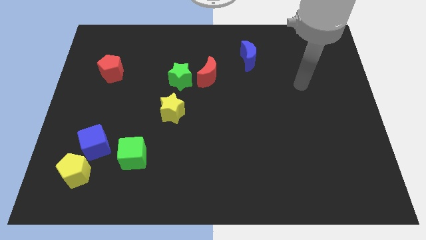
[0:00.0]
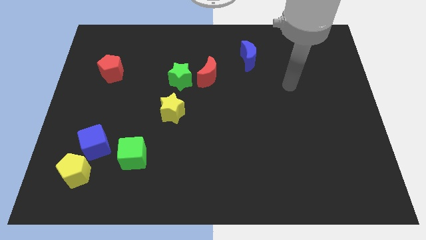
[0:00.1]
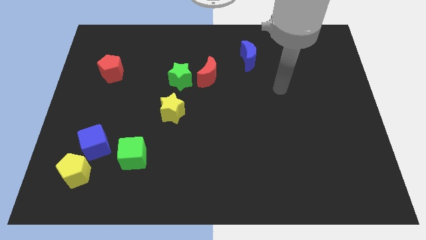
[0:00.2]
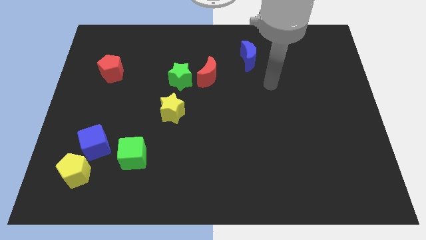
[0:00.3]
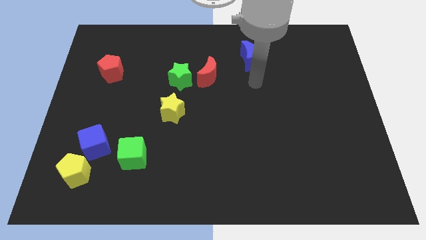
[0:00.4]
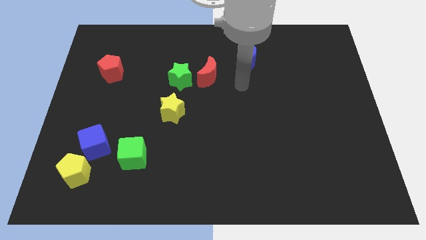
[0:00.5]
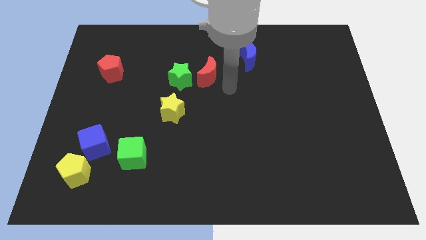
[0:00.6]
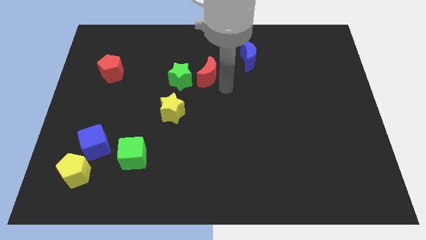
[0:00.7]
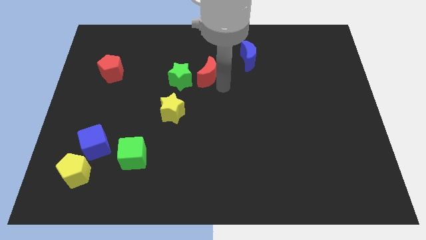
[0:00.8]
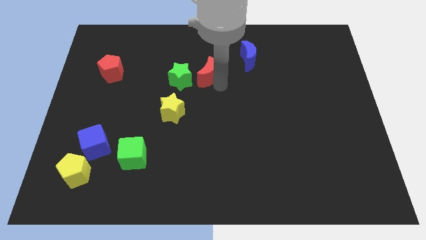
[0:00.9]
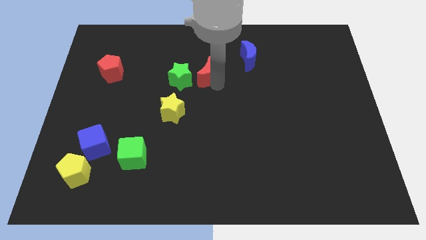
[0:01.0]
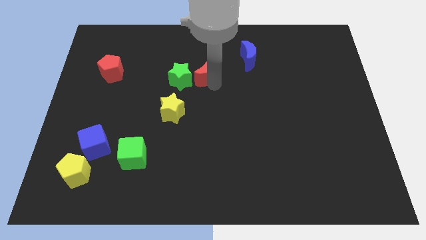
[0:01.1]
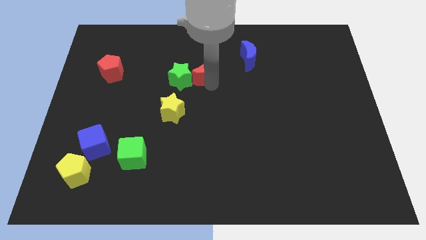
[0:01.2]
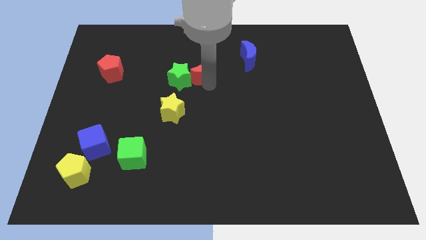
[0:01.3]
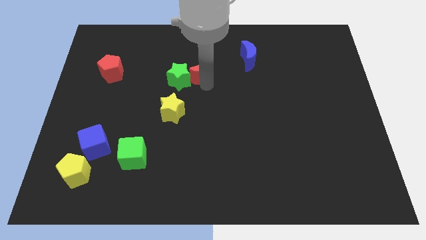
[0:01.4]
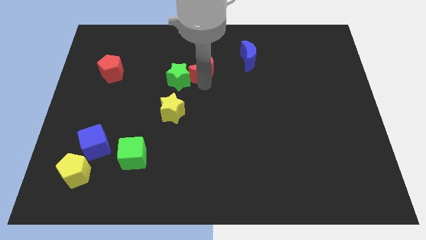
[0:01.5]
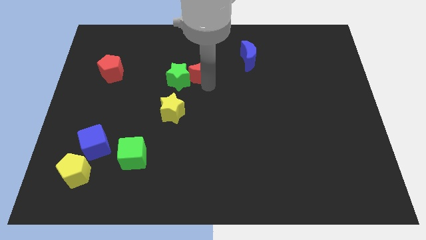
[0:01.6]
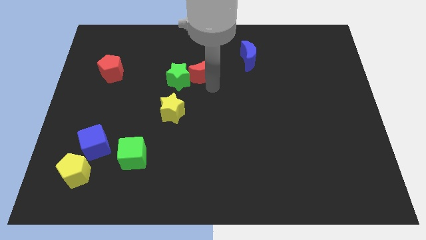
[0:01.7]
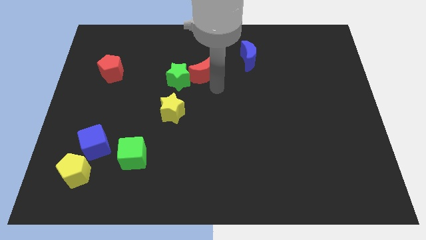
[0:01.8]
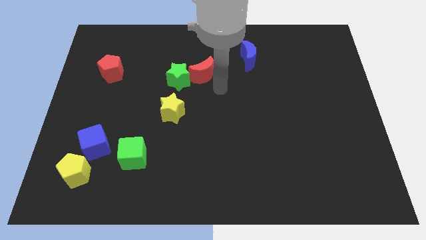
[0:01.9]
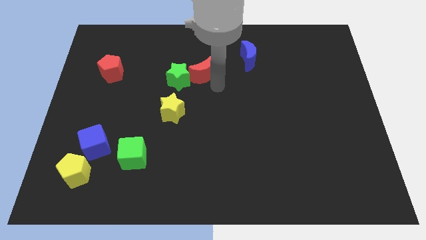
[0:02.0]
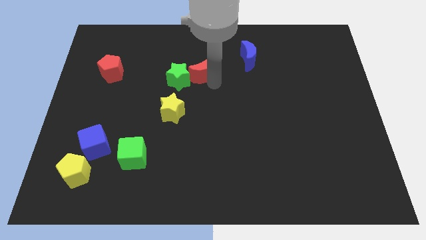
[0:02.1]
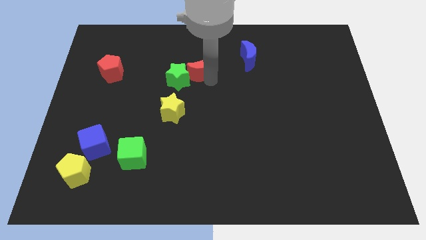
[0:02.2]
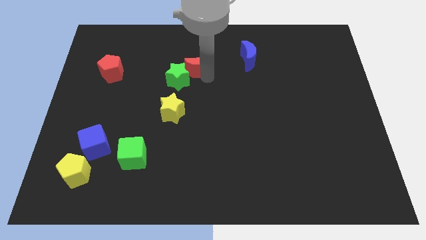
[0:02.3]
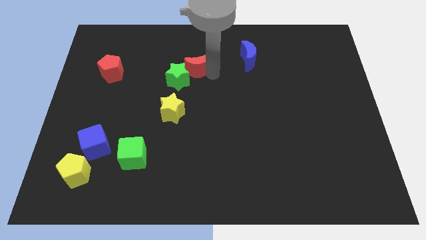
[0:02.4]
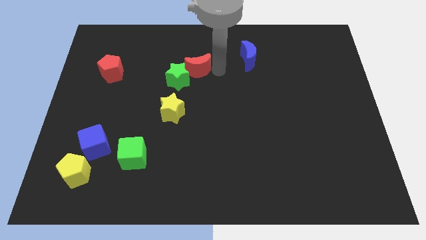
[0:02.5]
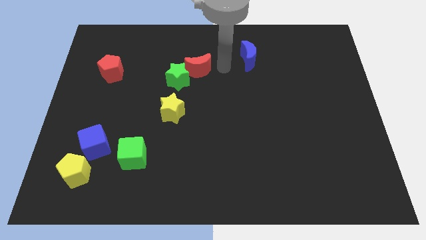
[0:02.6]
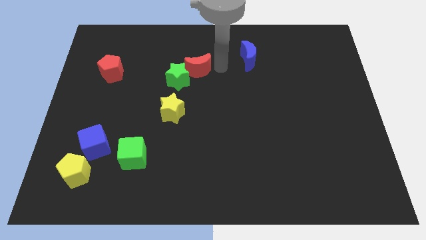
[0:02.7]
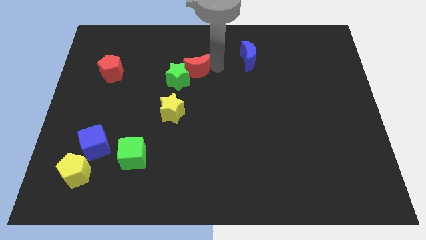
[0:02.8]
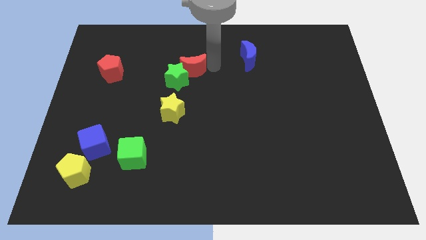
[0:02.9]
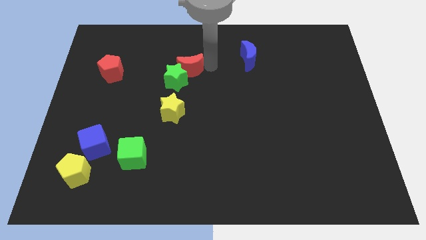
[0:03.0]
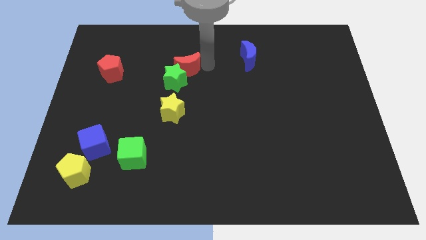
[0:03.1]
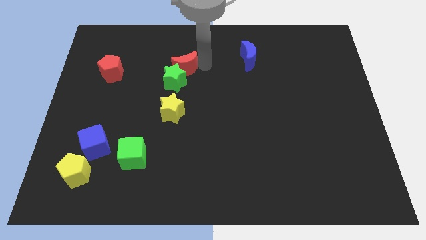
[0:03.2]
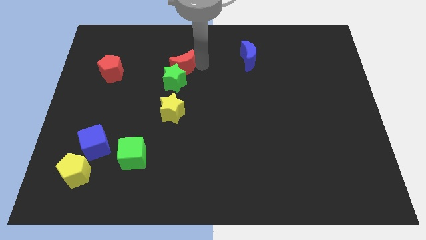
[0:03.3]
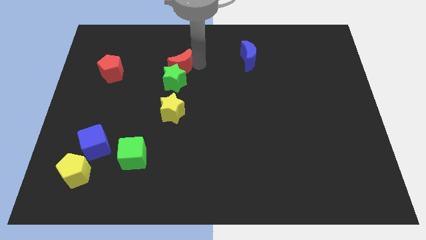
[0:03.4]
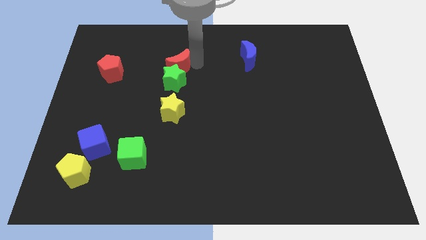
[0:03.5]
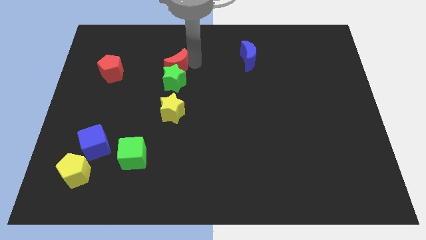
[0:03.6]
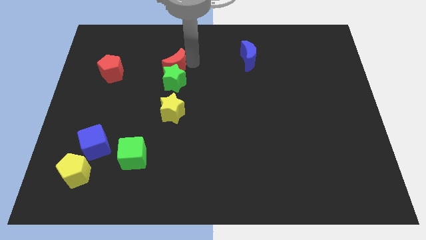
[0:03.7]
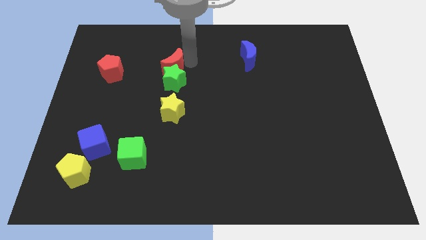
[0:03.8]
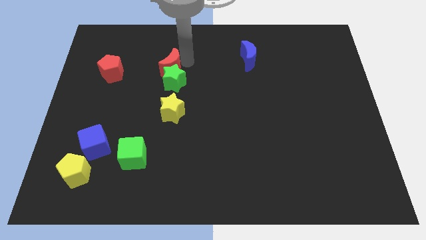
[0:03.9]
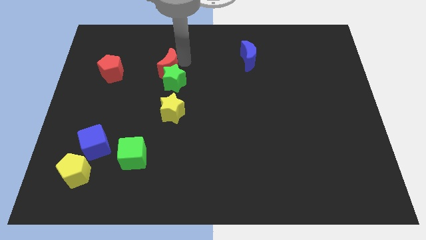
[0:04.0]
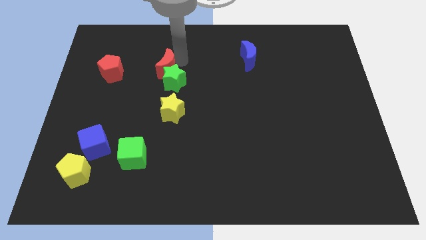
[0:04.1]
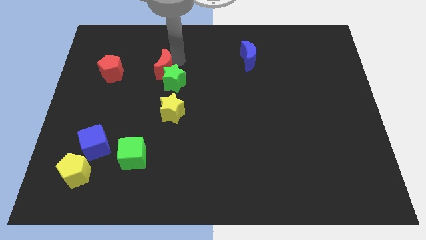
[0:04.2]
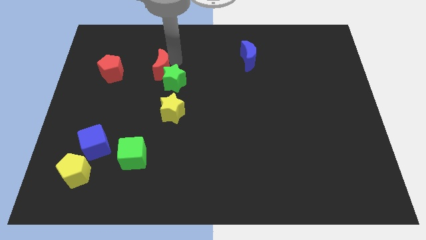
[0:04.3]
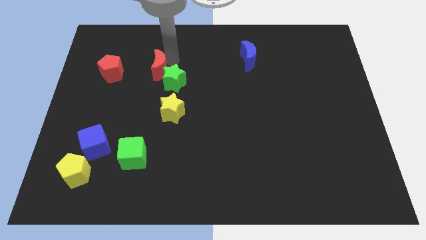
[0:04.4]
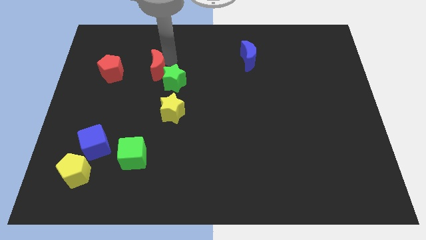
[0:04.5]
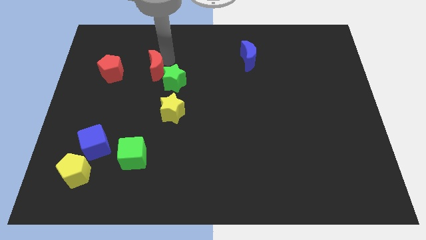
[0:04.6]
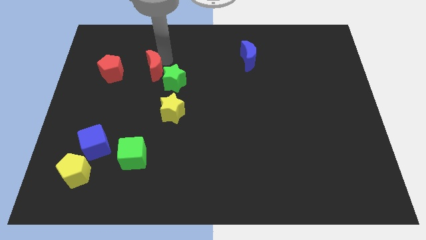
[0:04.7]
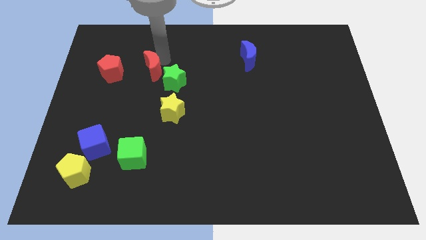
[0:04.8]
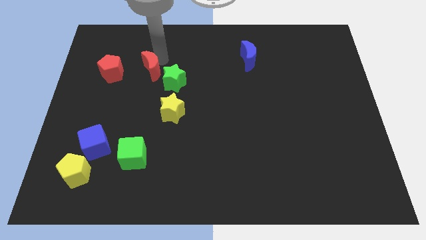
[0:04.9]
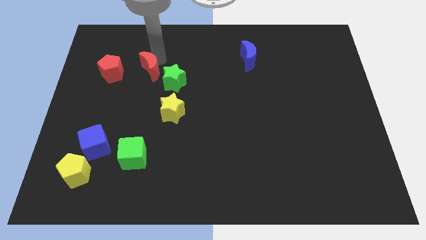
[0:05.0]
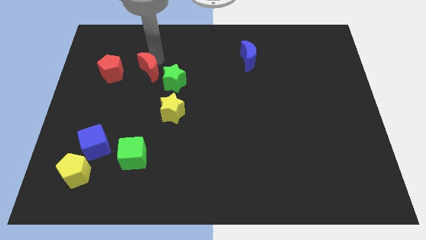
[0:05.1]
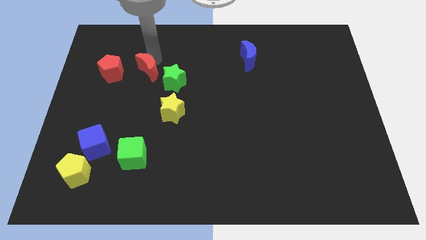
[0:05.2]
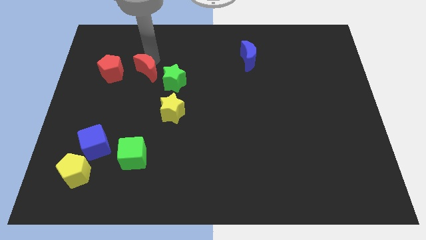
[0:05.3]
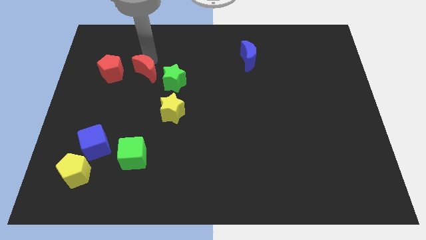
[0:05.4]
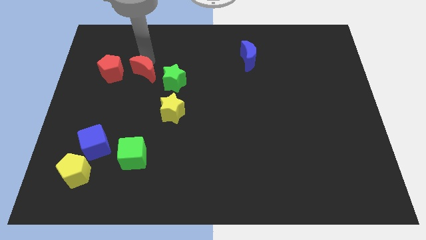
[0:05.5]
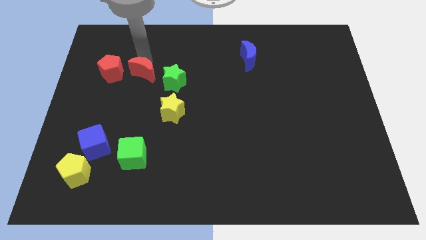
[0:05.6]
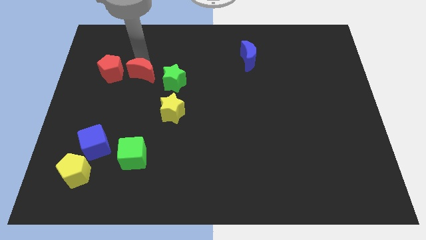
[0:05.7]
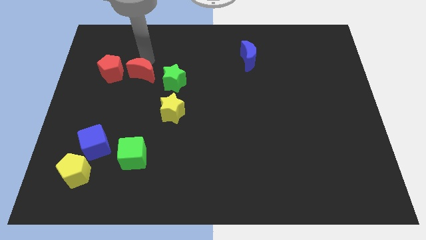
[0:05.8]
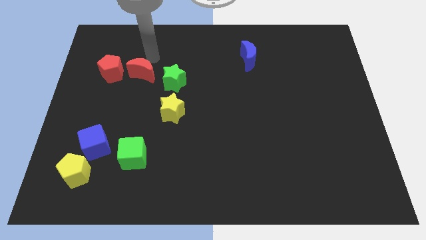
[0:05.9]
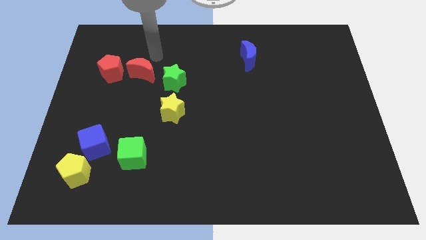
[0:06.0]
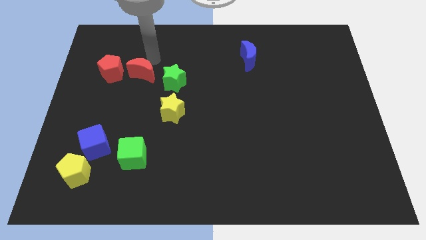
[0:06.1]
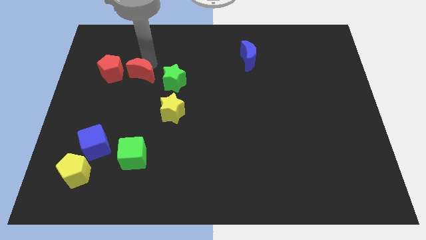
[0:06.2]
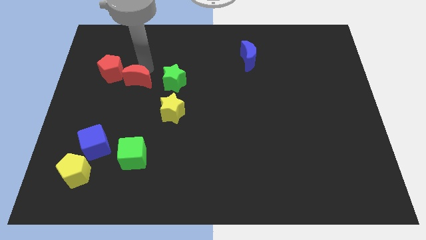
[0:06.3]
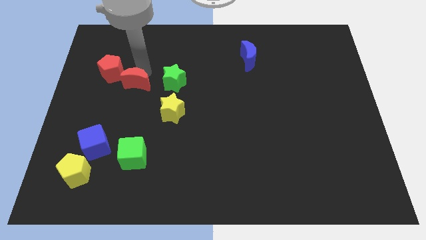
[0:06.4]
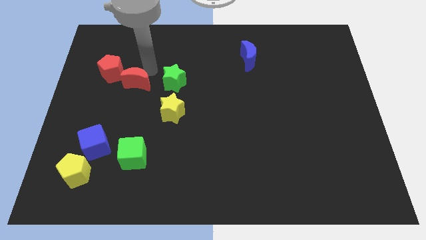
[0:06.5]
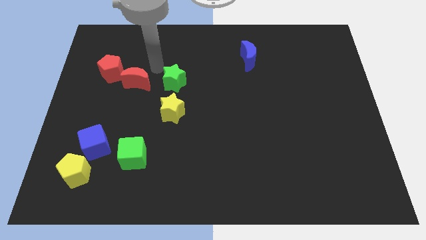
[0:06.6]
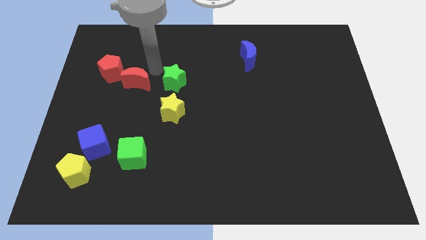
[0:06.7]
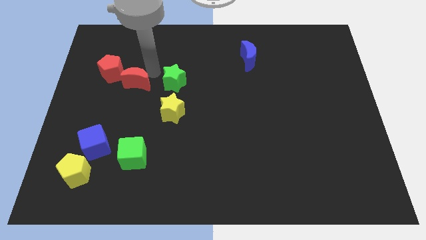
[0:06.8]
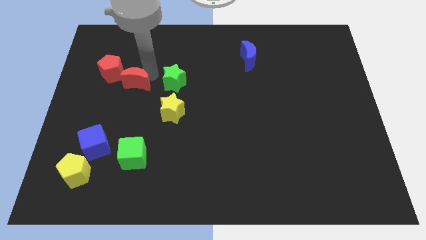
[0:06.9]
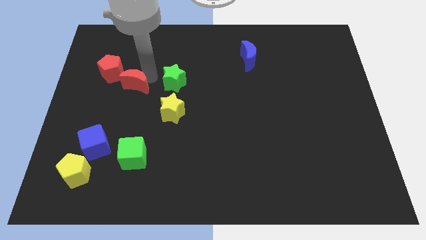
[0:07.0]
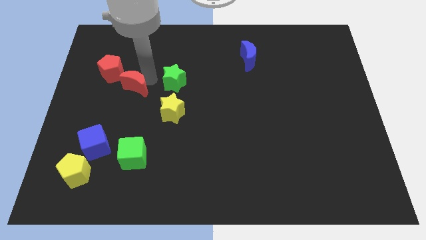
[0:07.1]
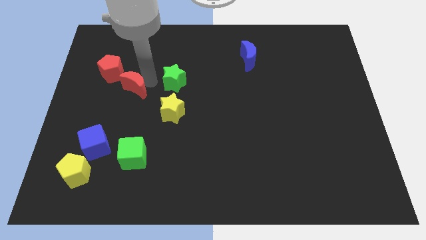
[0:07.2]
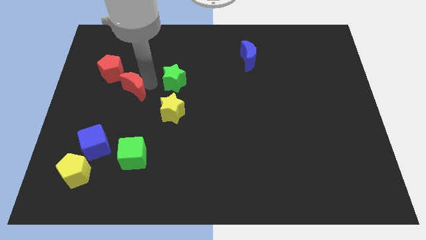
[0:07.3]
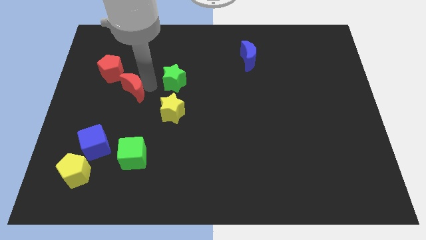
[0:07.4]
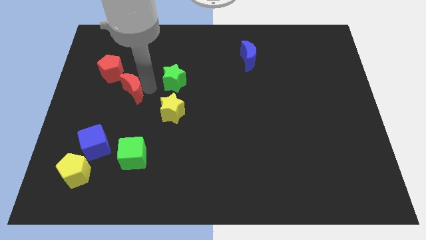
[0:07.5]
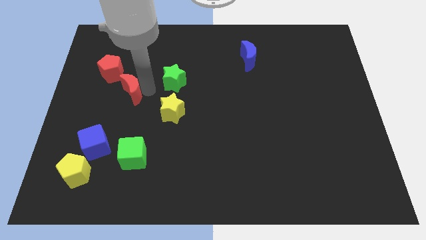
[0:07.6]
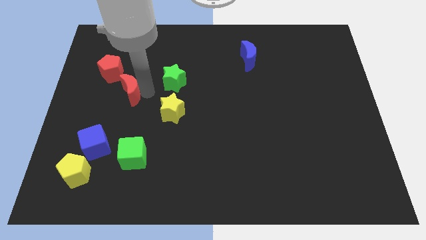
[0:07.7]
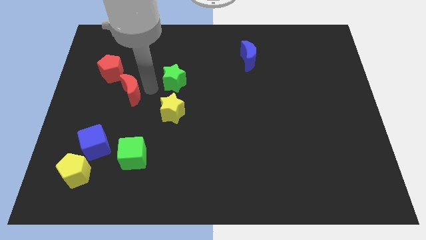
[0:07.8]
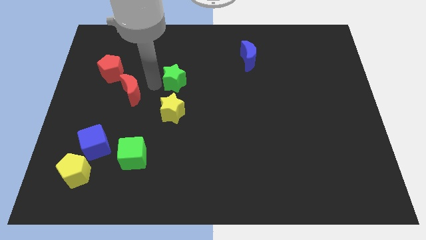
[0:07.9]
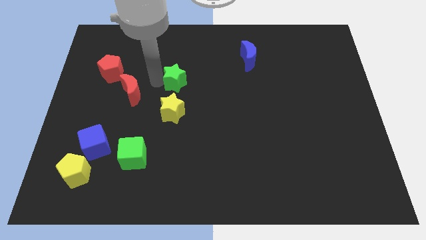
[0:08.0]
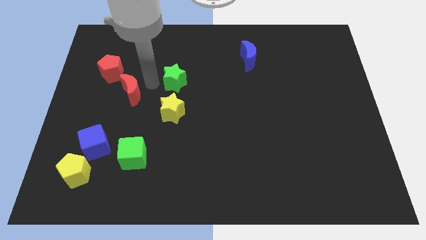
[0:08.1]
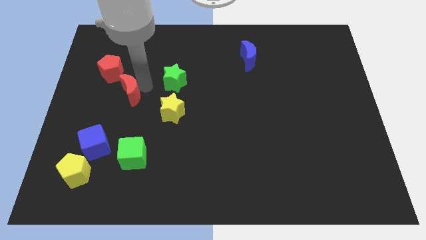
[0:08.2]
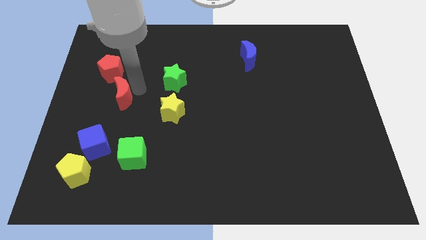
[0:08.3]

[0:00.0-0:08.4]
push the red moon to the bottom side of the red pentagon

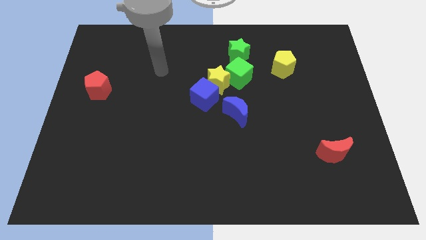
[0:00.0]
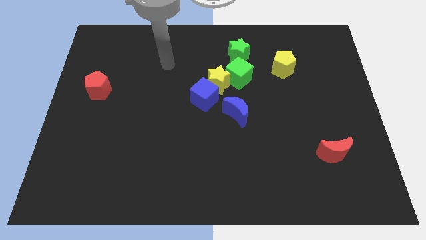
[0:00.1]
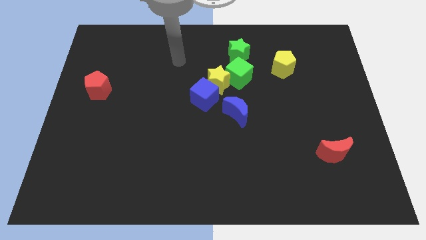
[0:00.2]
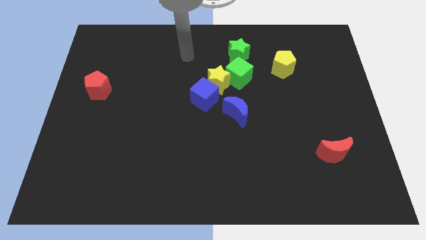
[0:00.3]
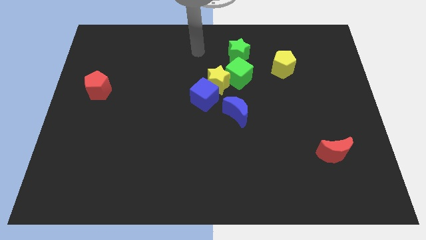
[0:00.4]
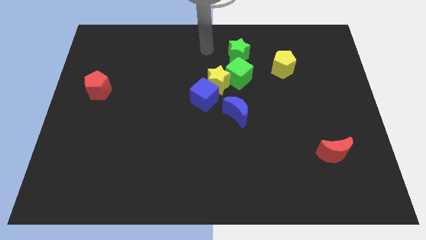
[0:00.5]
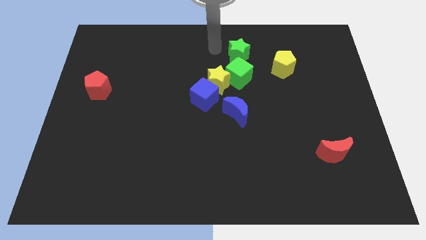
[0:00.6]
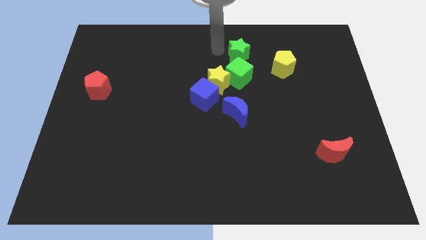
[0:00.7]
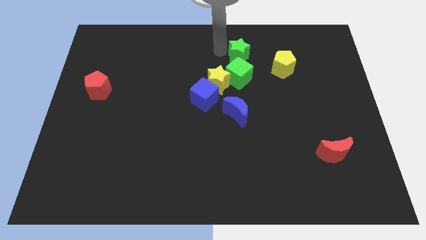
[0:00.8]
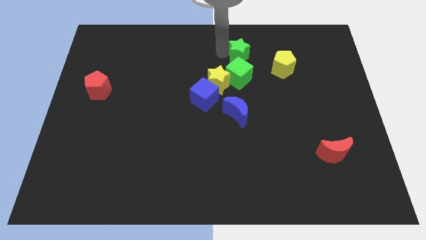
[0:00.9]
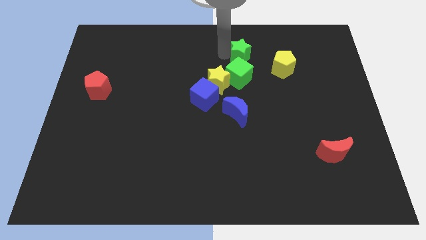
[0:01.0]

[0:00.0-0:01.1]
put the green star to the top right of the green cube
